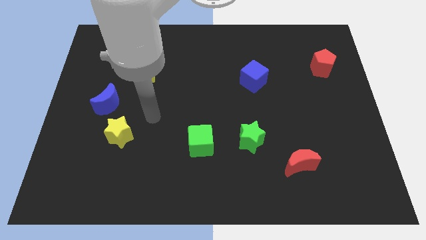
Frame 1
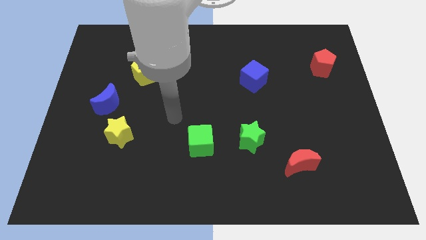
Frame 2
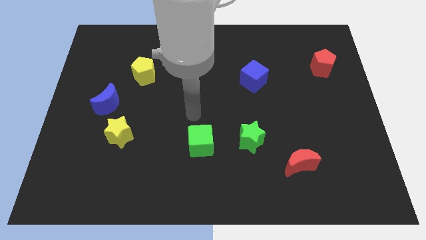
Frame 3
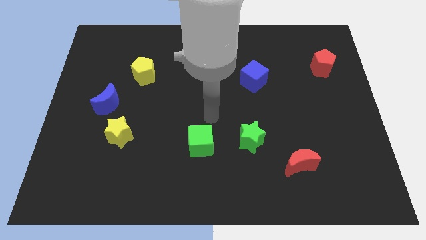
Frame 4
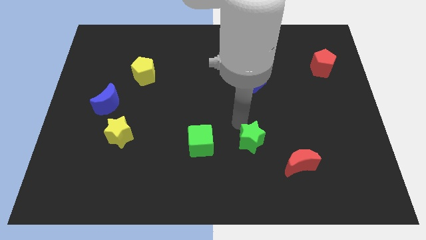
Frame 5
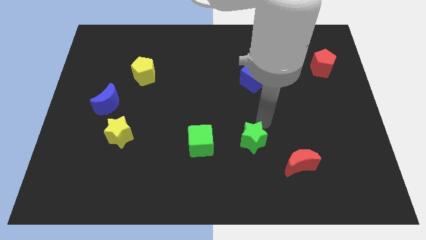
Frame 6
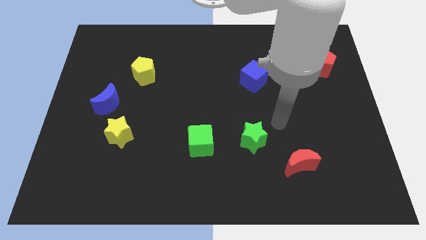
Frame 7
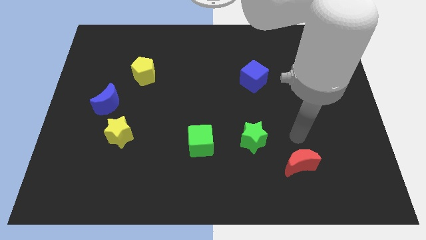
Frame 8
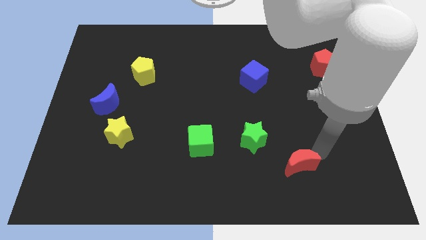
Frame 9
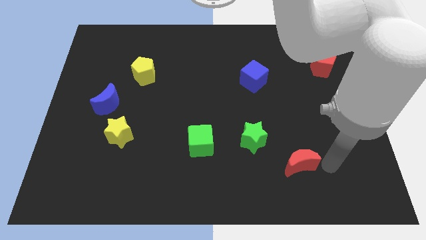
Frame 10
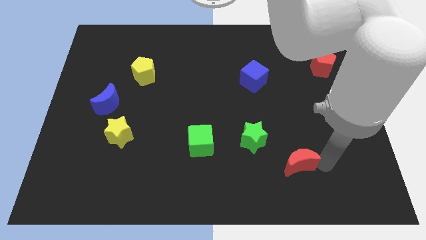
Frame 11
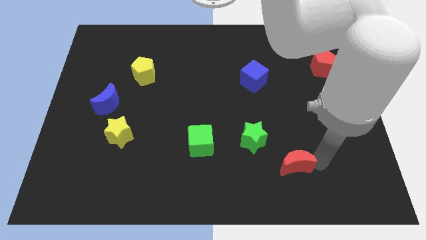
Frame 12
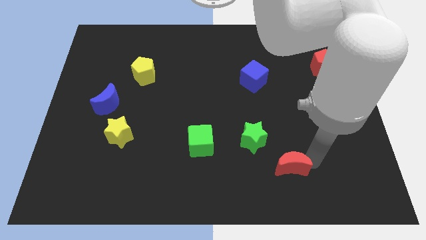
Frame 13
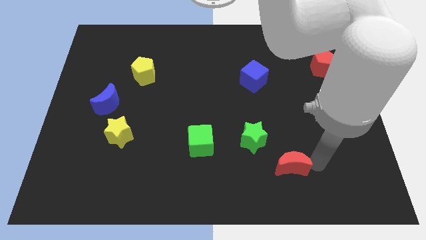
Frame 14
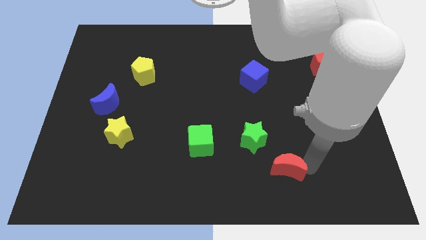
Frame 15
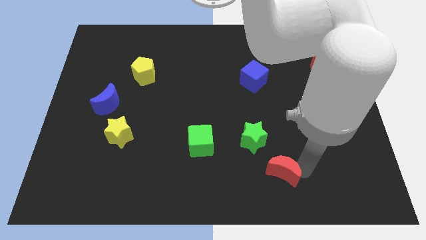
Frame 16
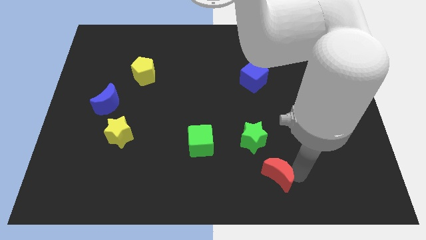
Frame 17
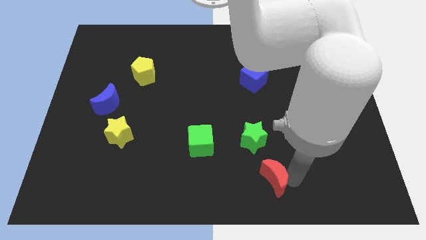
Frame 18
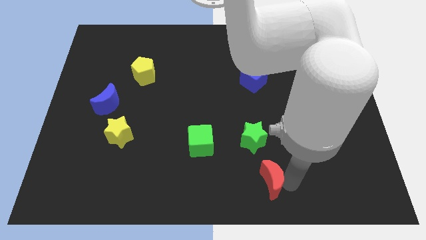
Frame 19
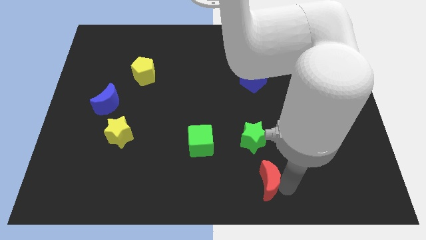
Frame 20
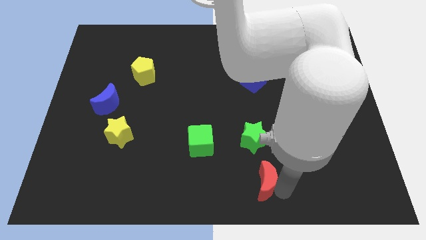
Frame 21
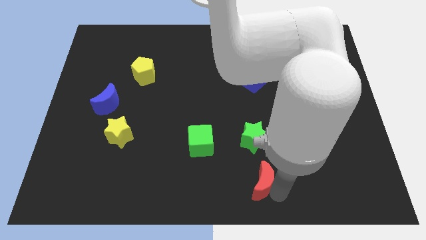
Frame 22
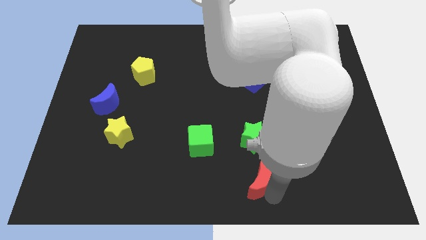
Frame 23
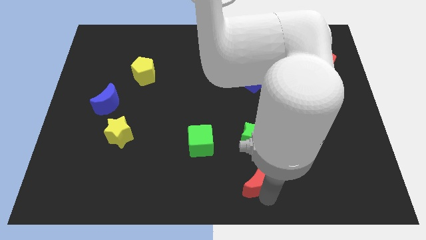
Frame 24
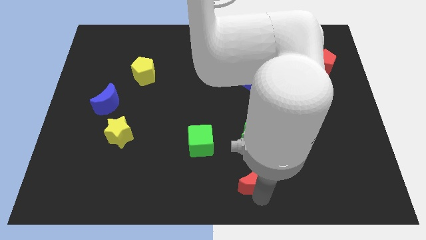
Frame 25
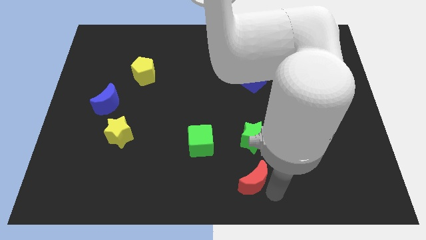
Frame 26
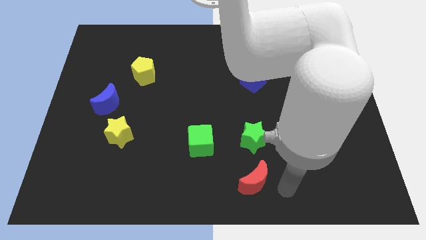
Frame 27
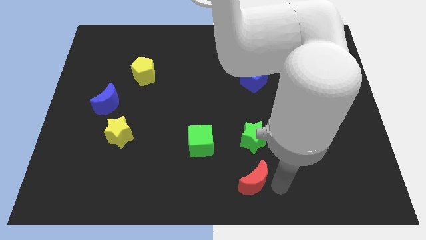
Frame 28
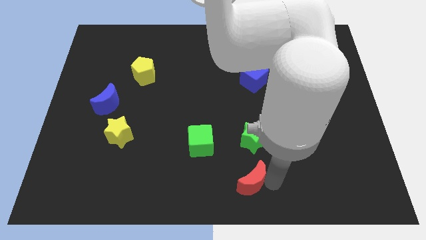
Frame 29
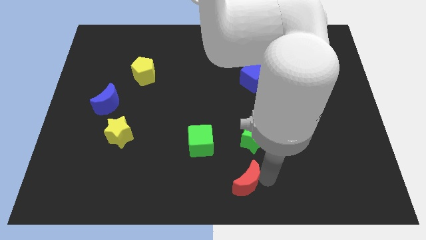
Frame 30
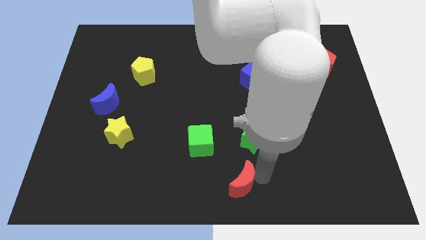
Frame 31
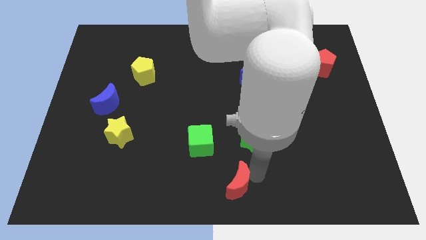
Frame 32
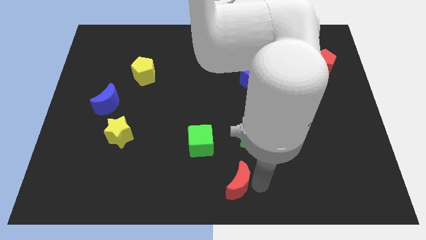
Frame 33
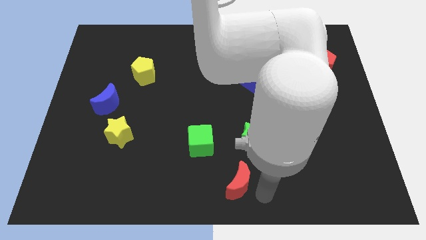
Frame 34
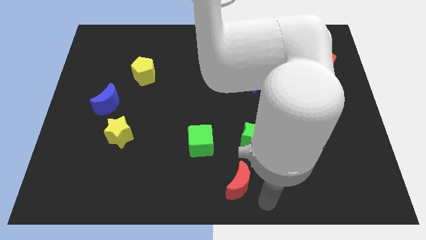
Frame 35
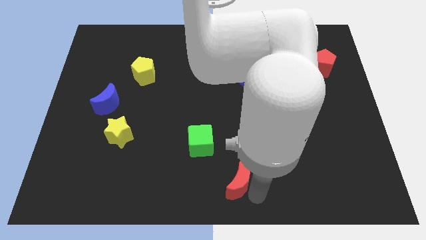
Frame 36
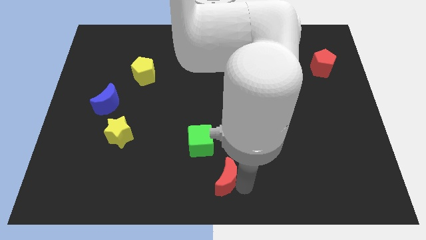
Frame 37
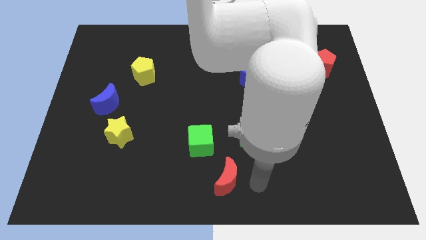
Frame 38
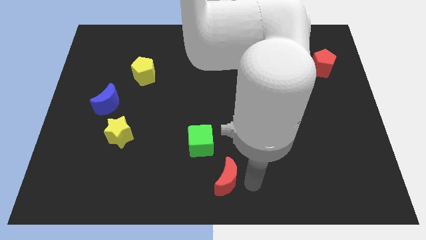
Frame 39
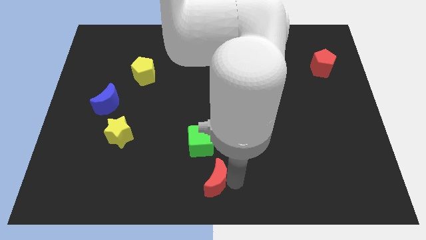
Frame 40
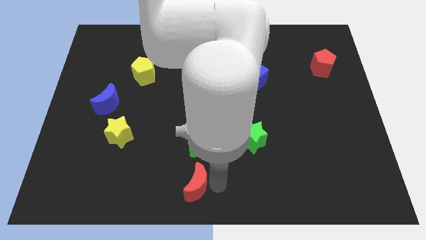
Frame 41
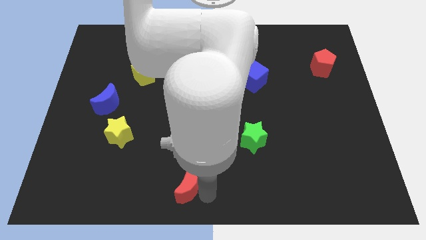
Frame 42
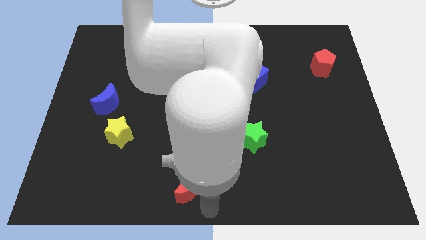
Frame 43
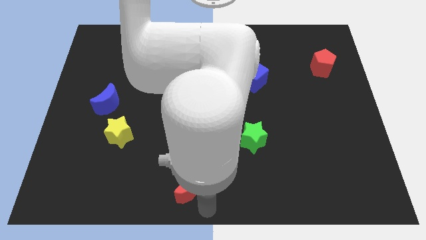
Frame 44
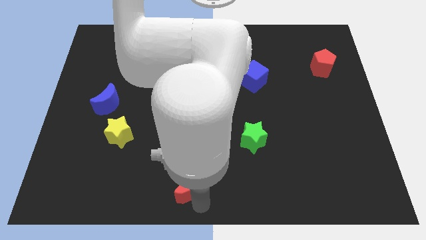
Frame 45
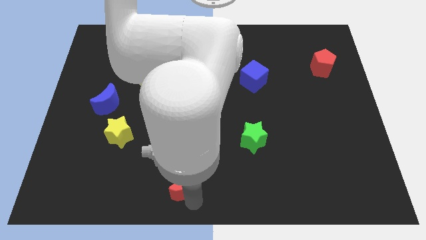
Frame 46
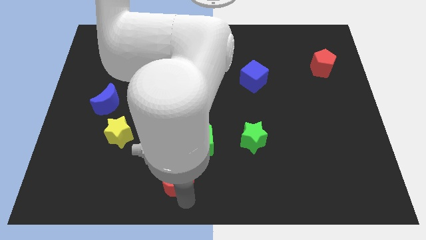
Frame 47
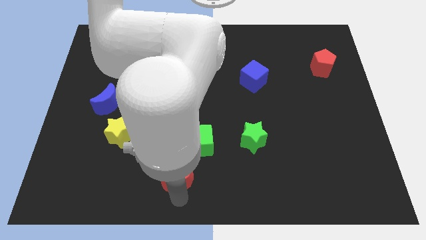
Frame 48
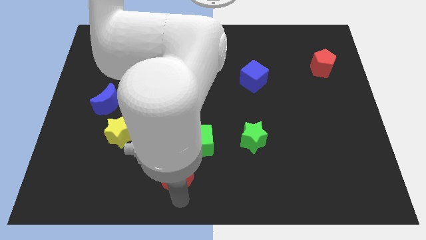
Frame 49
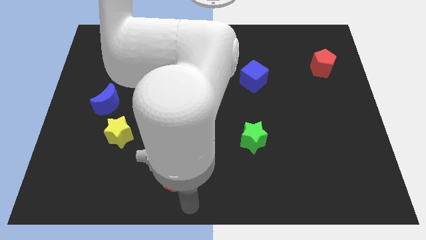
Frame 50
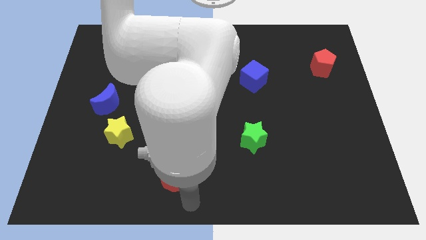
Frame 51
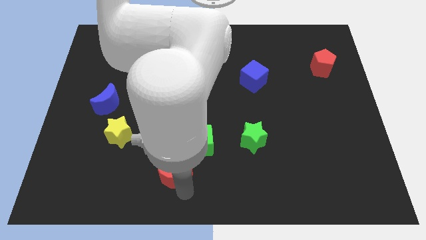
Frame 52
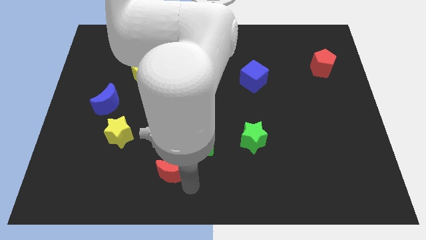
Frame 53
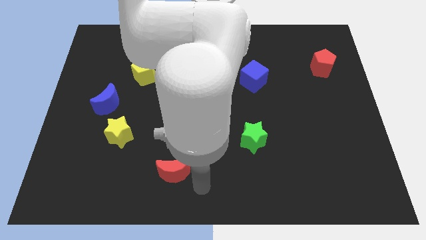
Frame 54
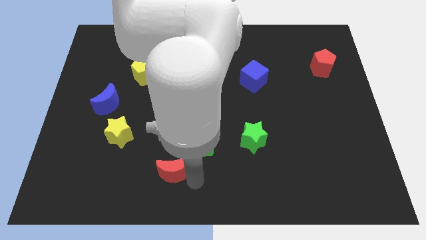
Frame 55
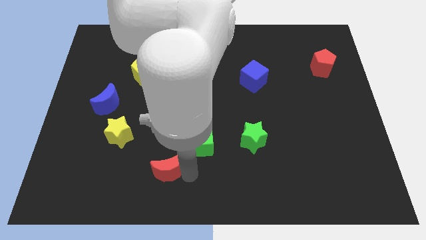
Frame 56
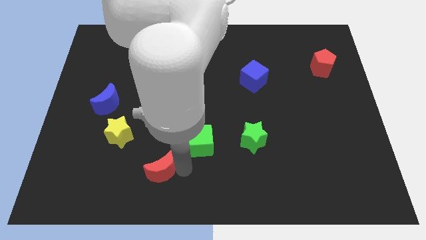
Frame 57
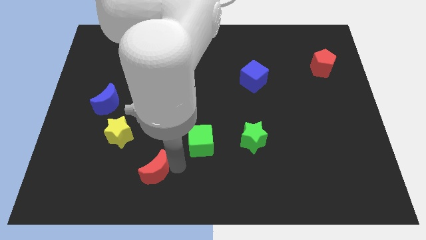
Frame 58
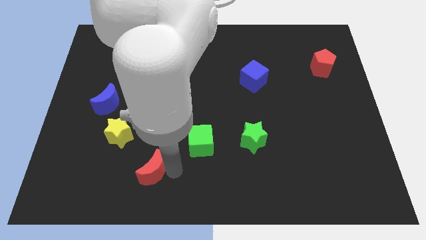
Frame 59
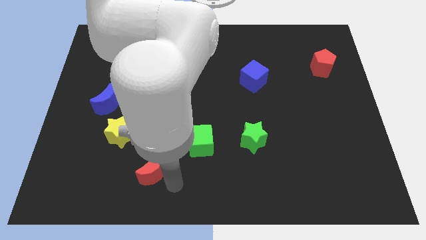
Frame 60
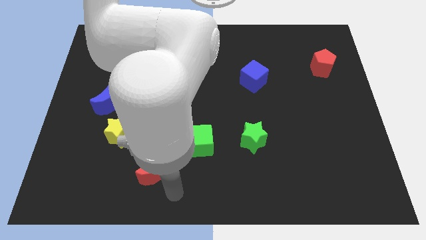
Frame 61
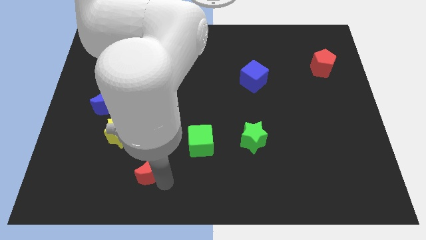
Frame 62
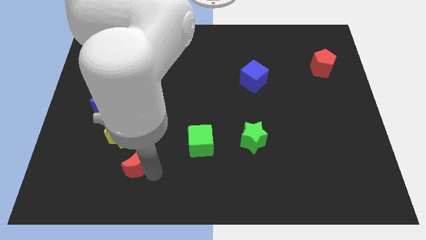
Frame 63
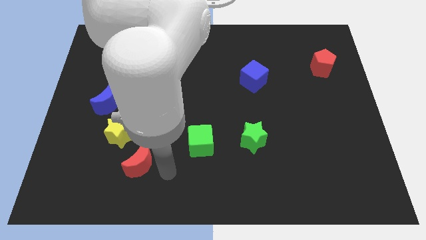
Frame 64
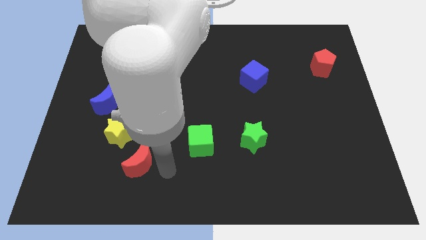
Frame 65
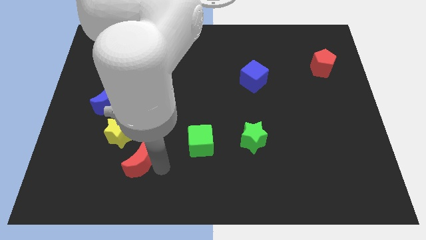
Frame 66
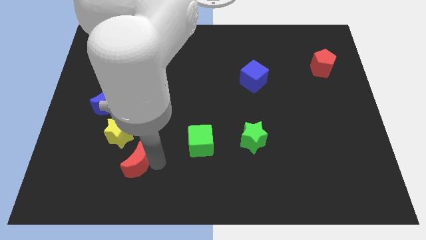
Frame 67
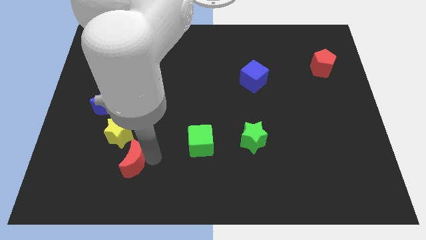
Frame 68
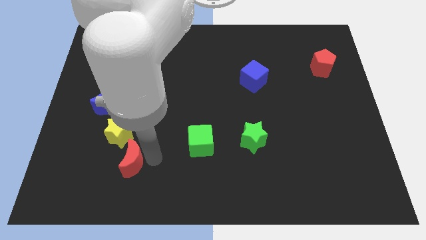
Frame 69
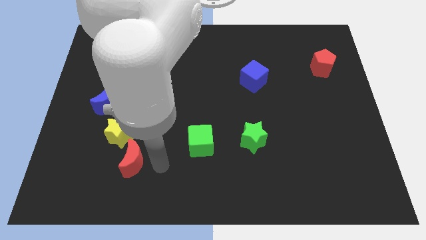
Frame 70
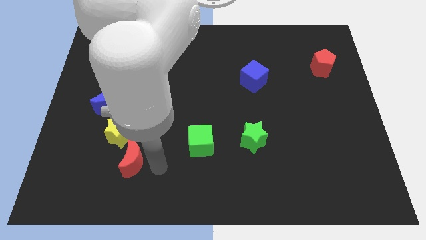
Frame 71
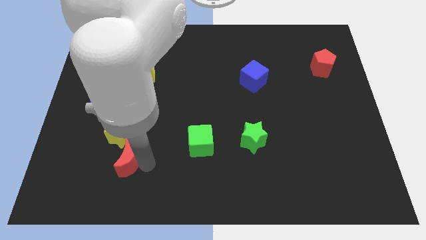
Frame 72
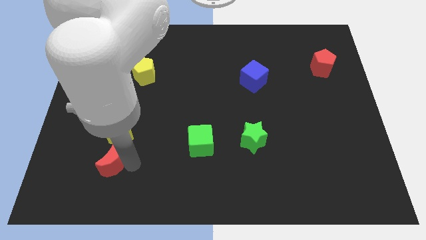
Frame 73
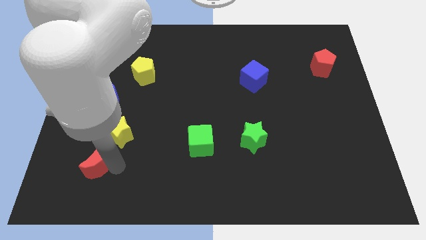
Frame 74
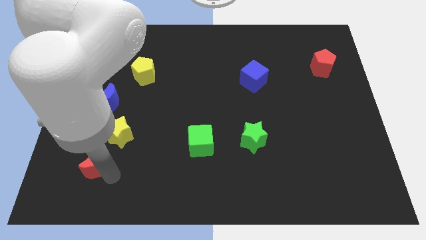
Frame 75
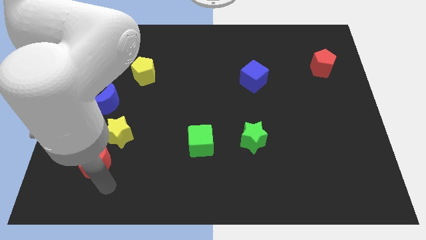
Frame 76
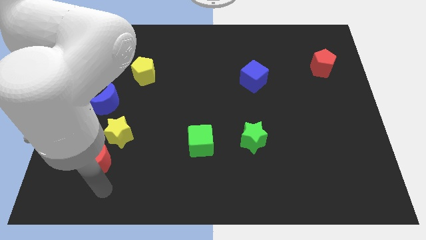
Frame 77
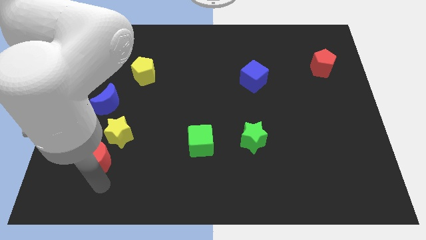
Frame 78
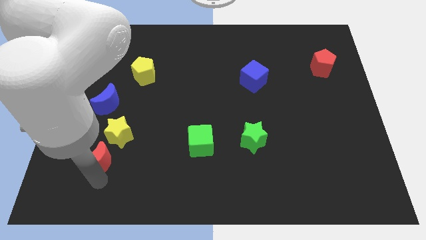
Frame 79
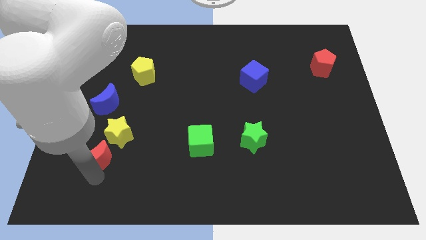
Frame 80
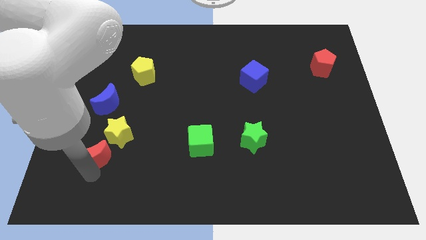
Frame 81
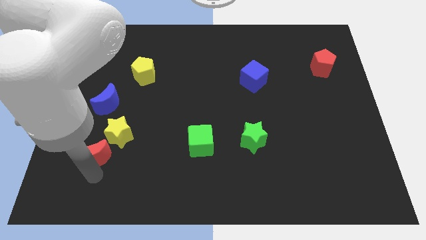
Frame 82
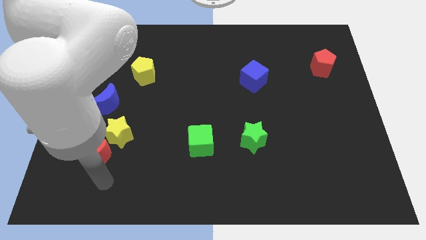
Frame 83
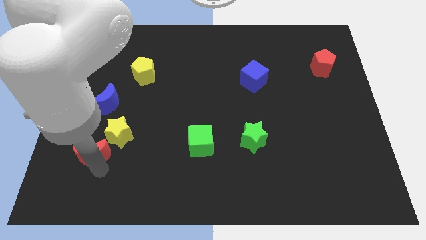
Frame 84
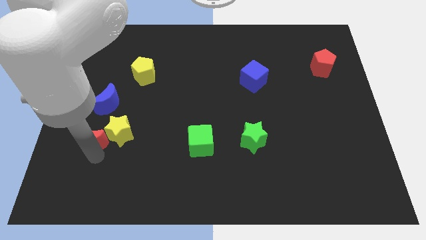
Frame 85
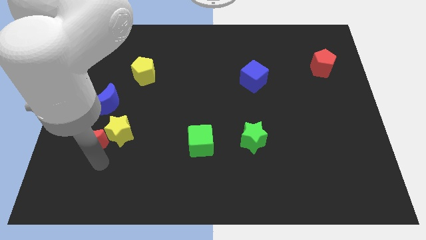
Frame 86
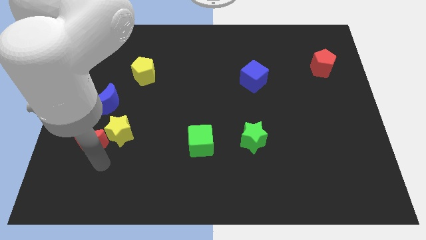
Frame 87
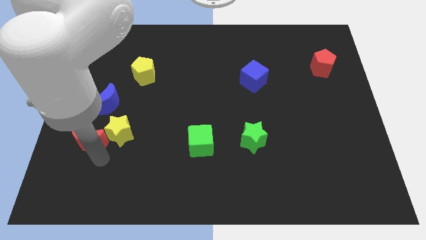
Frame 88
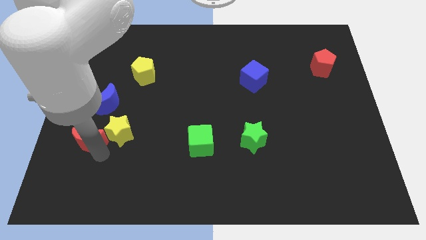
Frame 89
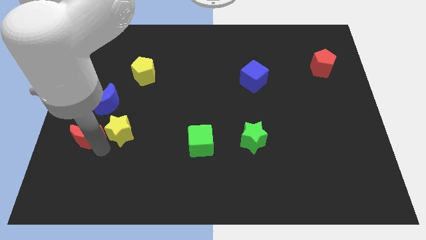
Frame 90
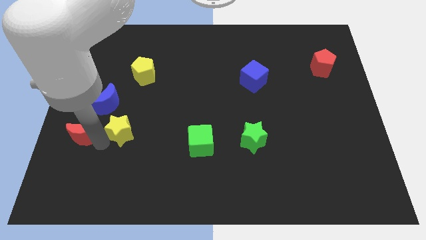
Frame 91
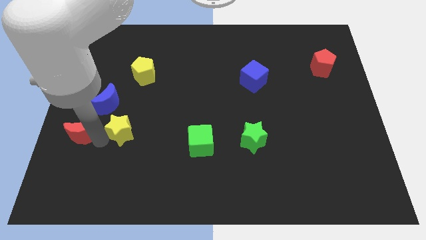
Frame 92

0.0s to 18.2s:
slide the red moon to the left side of the board
